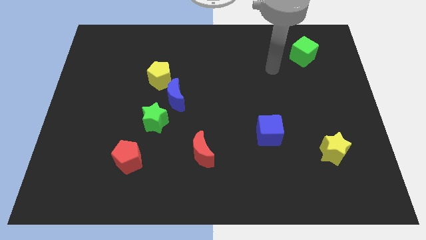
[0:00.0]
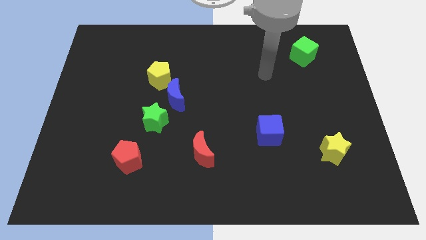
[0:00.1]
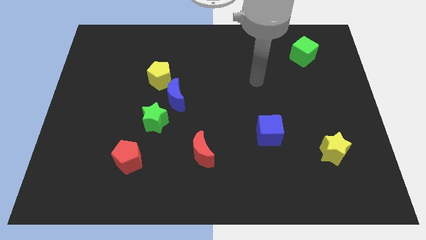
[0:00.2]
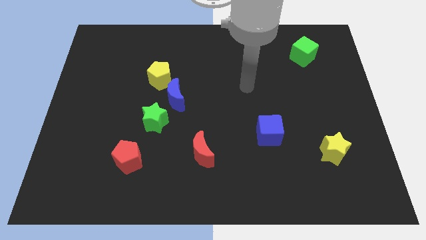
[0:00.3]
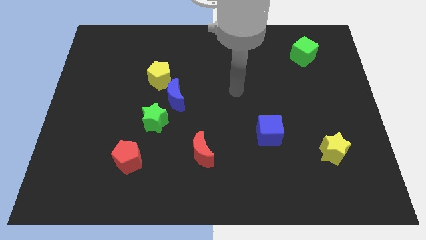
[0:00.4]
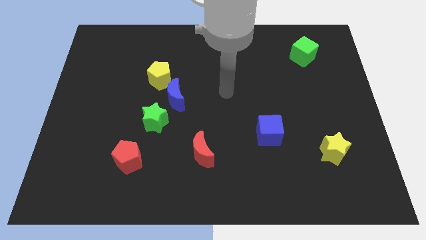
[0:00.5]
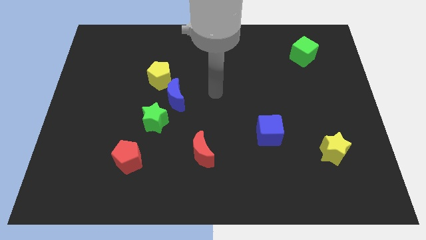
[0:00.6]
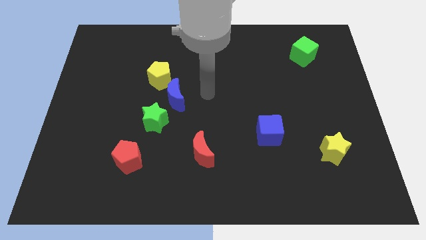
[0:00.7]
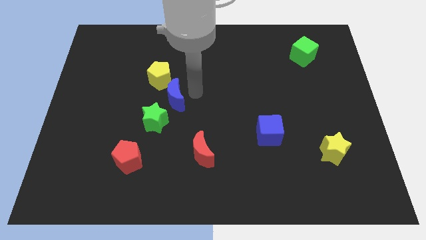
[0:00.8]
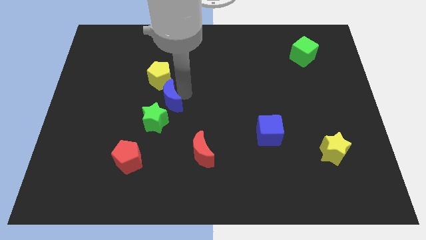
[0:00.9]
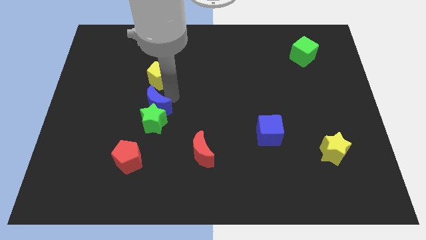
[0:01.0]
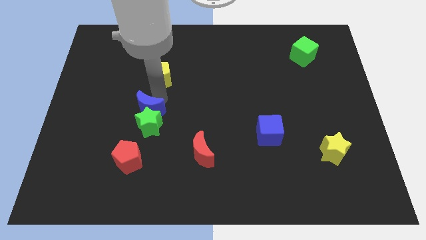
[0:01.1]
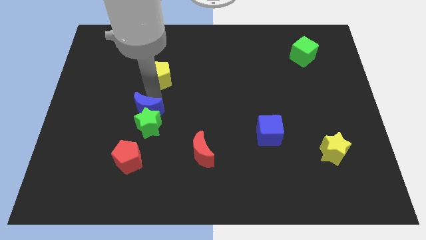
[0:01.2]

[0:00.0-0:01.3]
move the yellow pentagon away from the blue moon

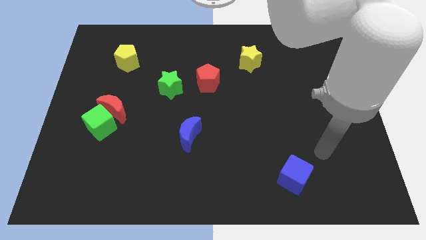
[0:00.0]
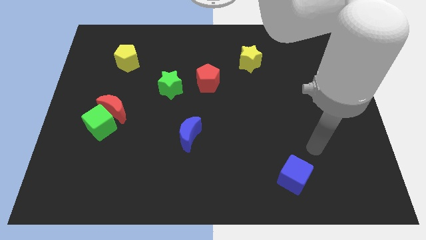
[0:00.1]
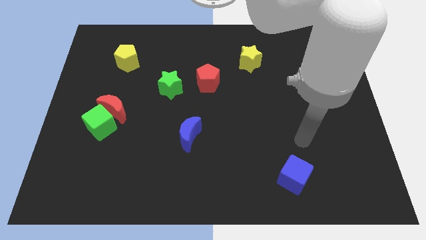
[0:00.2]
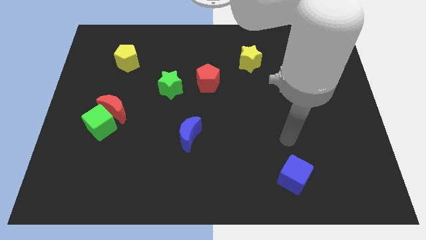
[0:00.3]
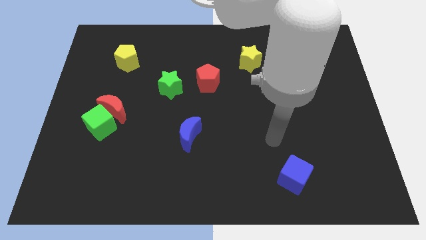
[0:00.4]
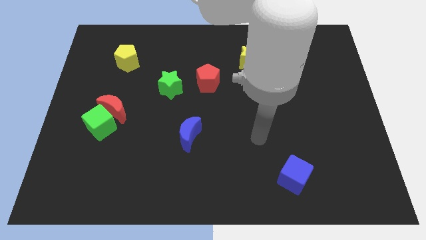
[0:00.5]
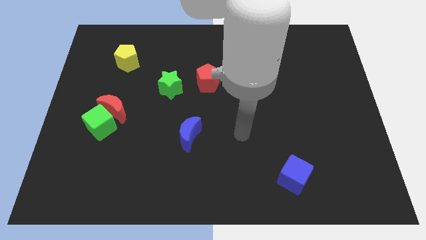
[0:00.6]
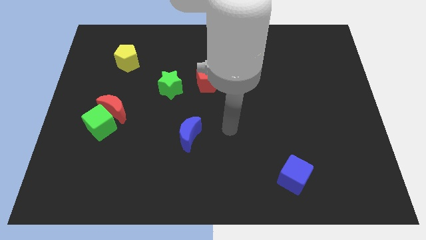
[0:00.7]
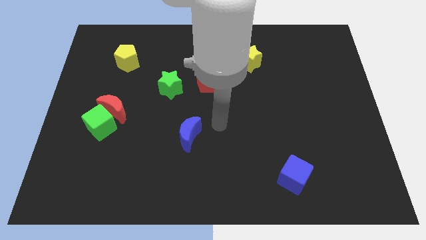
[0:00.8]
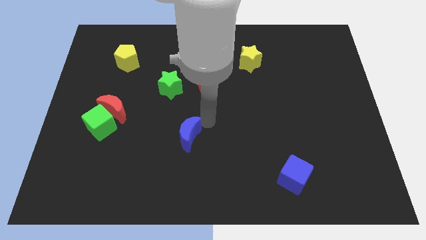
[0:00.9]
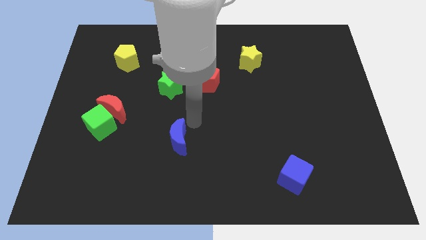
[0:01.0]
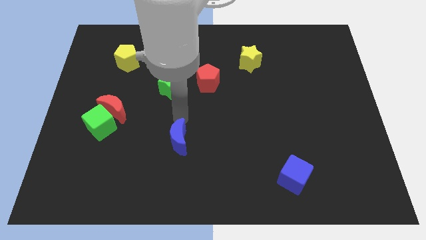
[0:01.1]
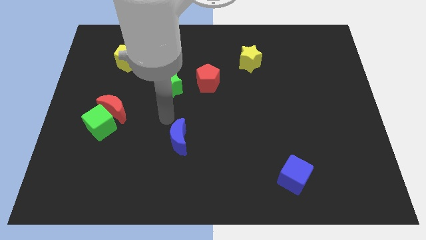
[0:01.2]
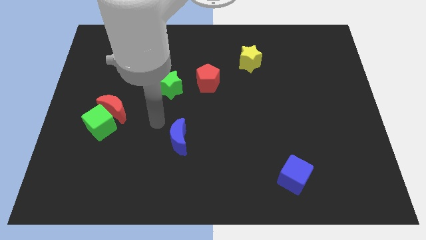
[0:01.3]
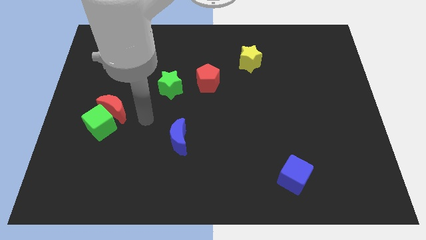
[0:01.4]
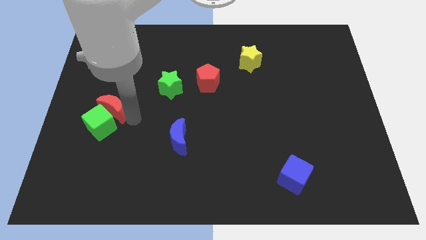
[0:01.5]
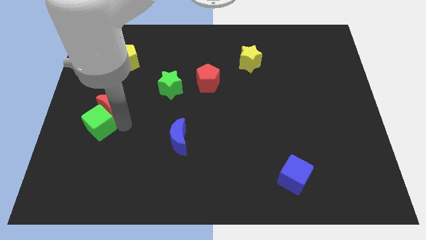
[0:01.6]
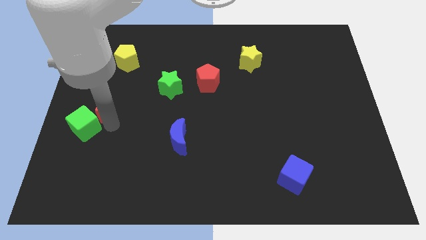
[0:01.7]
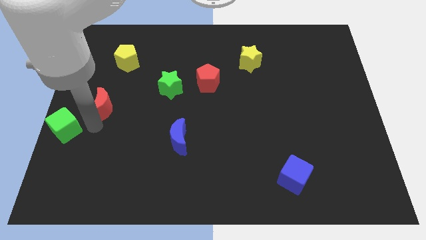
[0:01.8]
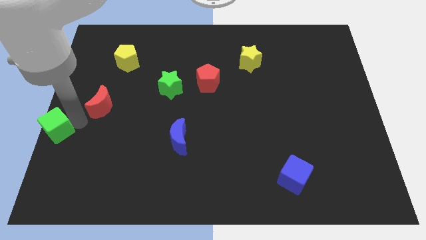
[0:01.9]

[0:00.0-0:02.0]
pull the red moon apart from the green cube

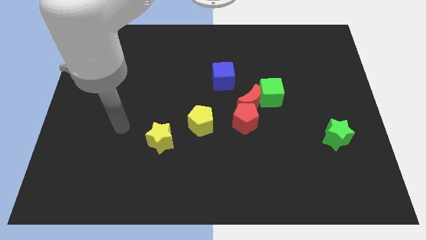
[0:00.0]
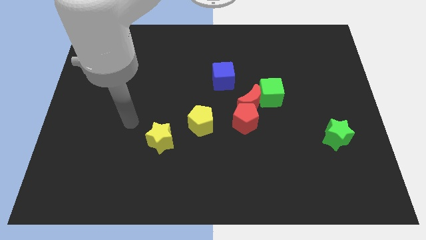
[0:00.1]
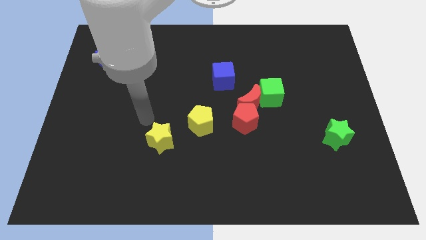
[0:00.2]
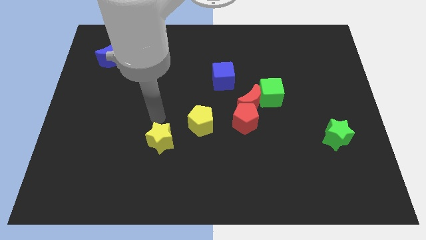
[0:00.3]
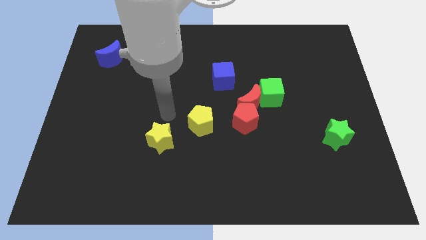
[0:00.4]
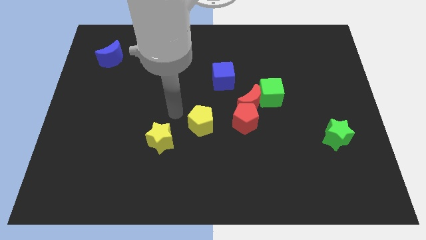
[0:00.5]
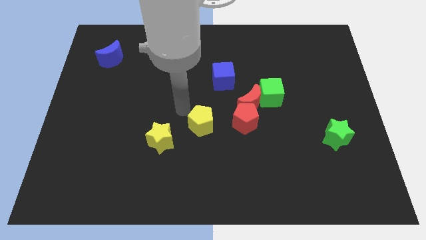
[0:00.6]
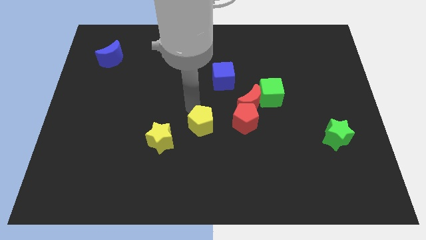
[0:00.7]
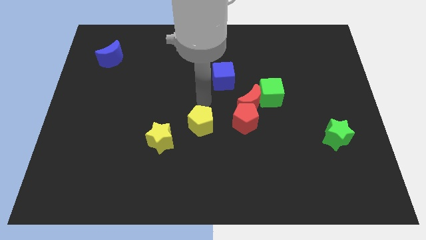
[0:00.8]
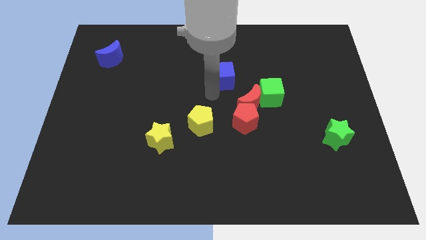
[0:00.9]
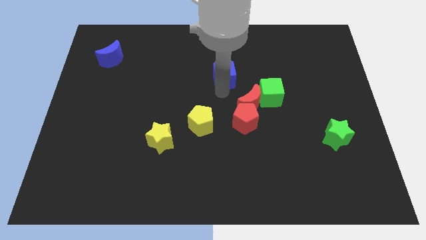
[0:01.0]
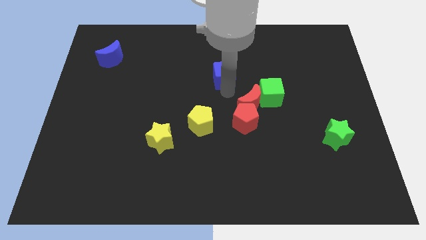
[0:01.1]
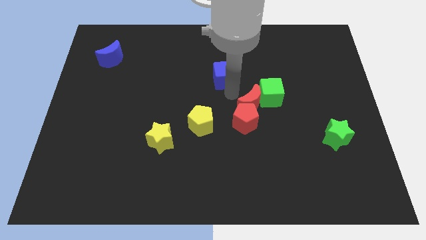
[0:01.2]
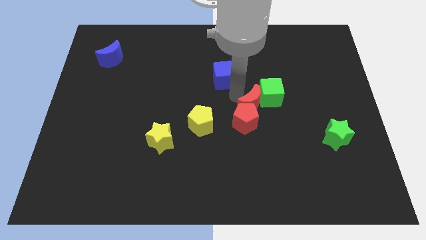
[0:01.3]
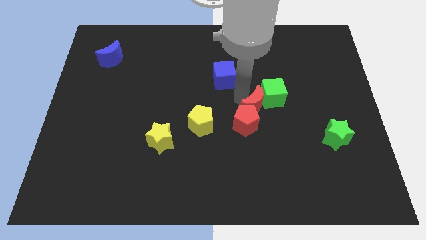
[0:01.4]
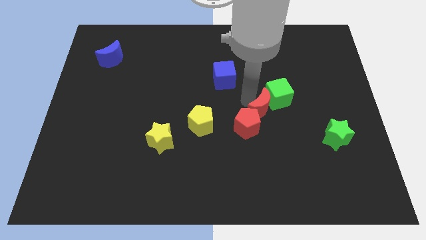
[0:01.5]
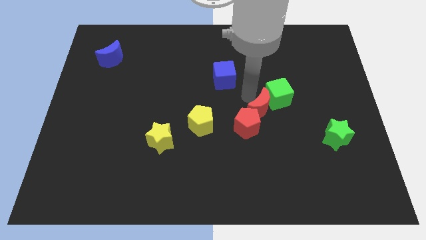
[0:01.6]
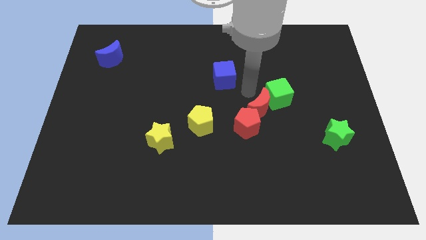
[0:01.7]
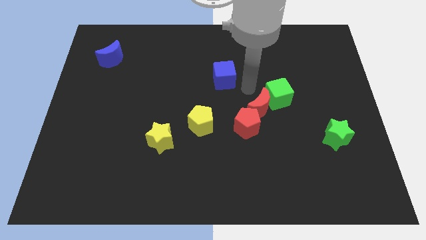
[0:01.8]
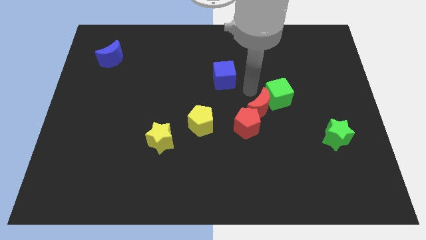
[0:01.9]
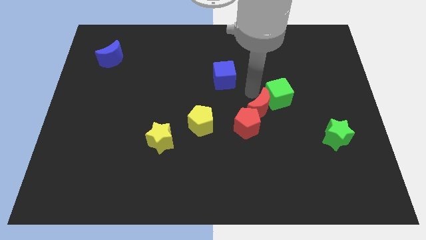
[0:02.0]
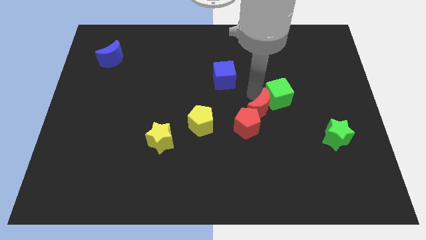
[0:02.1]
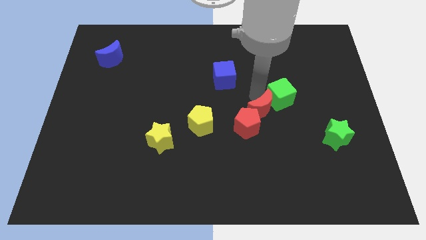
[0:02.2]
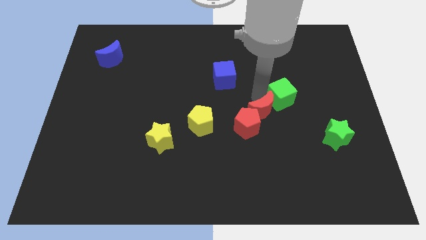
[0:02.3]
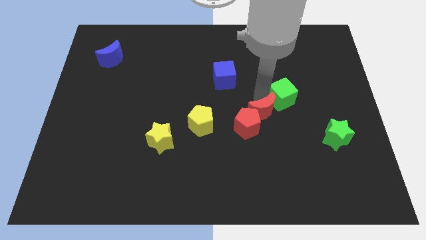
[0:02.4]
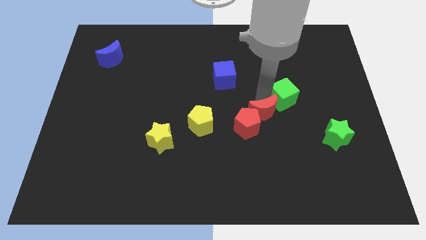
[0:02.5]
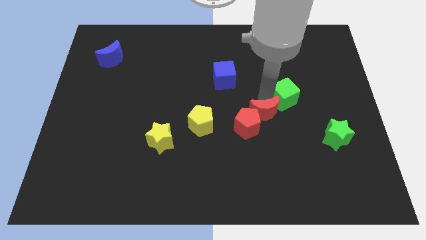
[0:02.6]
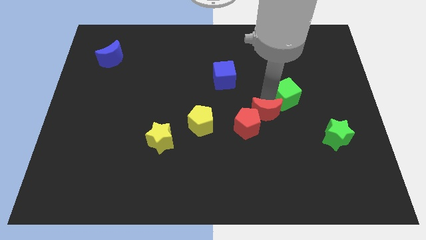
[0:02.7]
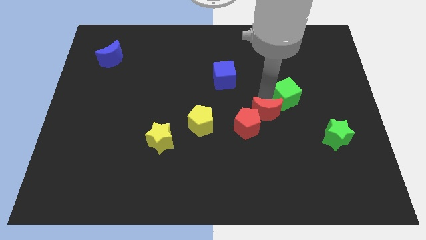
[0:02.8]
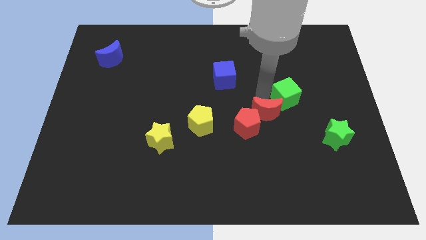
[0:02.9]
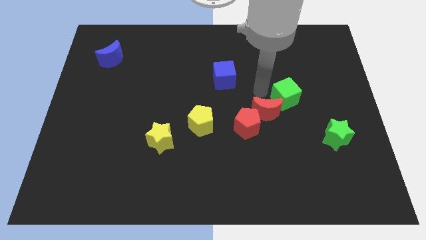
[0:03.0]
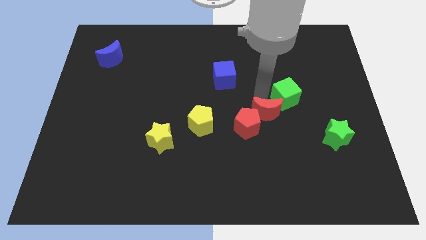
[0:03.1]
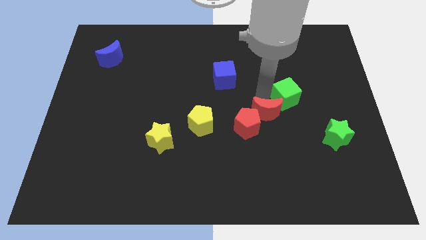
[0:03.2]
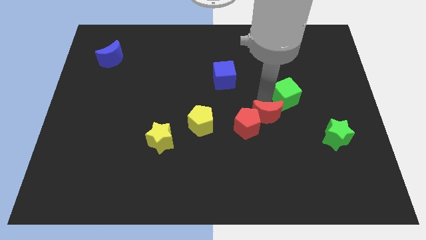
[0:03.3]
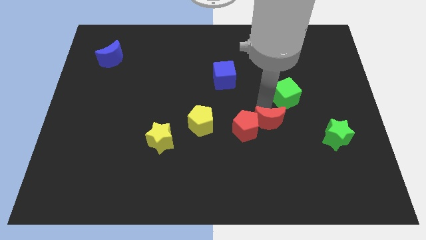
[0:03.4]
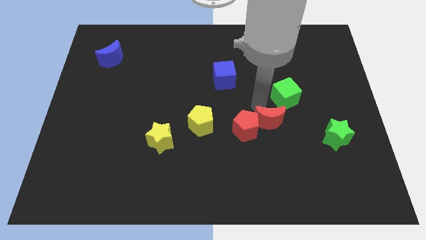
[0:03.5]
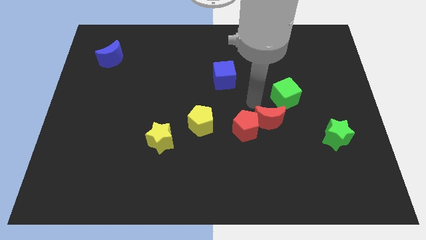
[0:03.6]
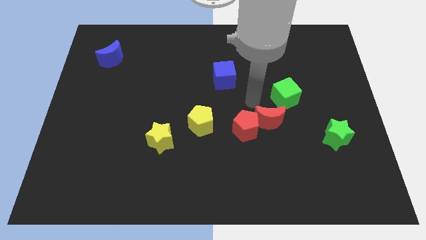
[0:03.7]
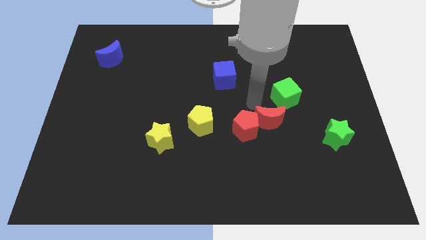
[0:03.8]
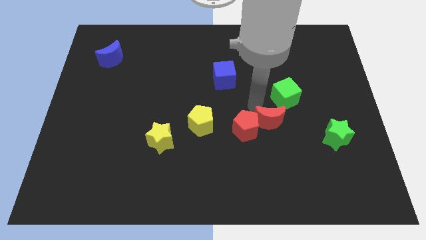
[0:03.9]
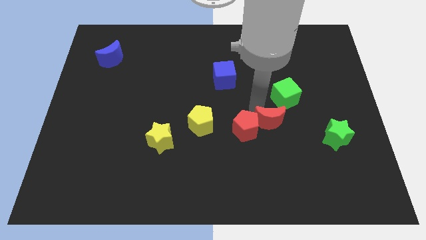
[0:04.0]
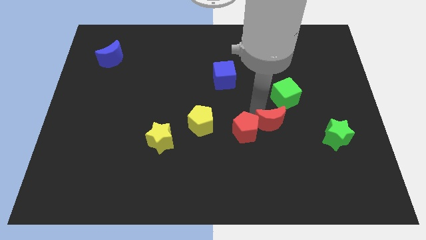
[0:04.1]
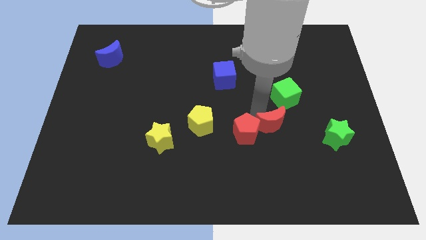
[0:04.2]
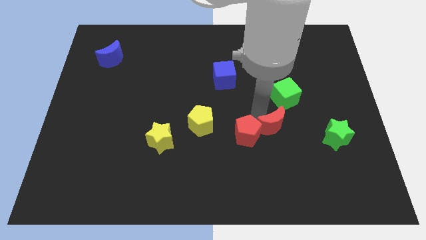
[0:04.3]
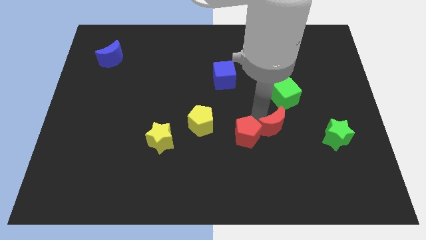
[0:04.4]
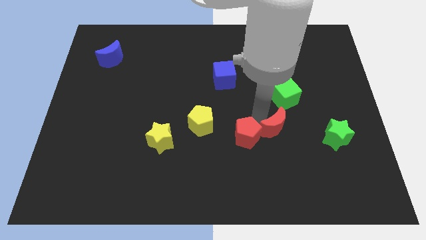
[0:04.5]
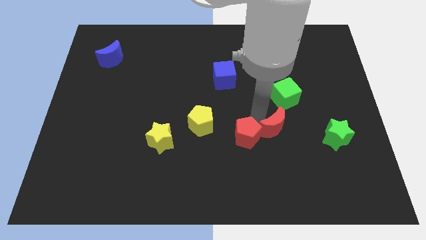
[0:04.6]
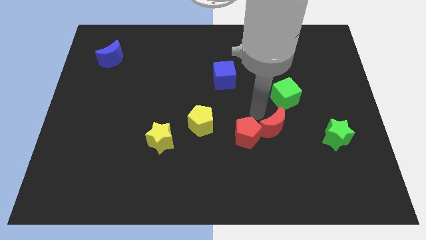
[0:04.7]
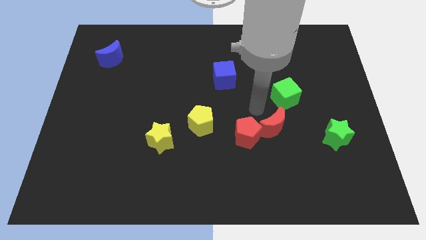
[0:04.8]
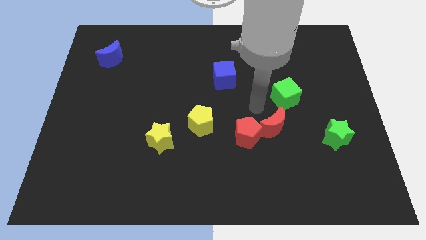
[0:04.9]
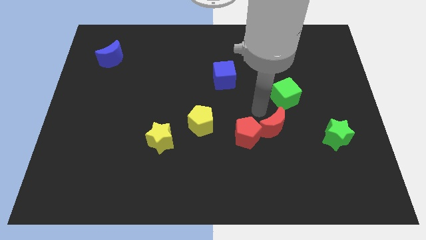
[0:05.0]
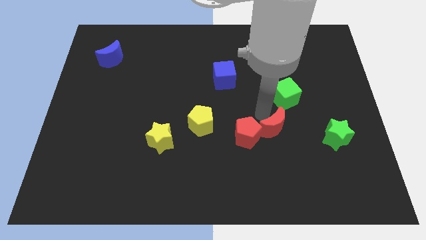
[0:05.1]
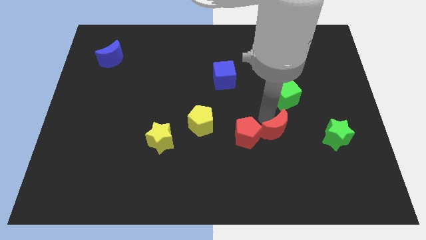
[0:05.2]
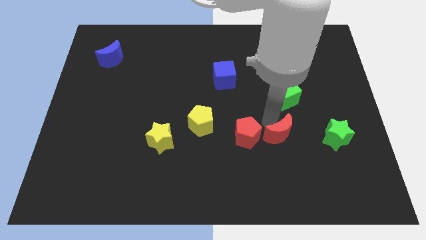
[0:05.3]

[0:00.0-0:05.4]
pull the red moon apart from the group

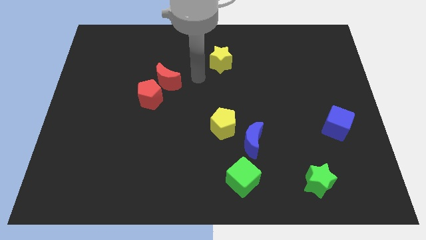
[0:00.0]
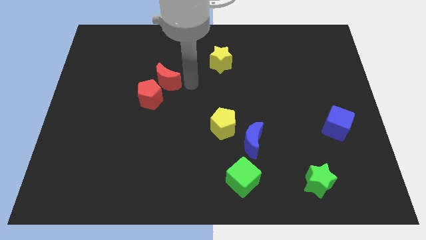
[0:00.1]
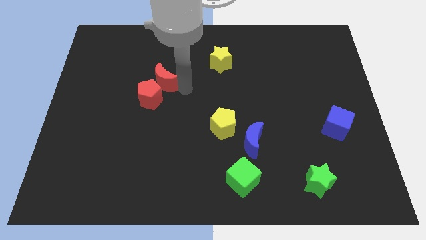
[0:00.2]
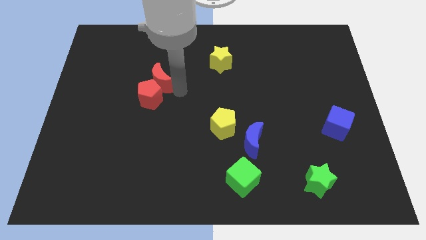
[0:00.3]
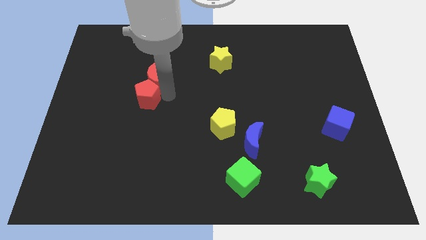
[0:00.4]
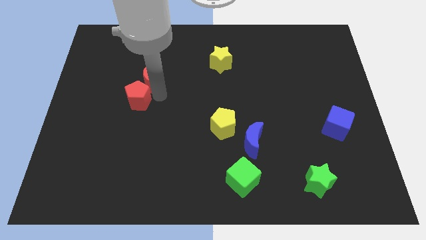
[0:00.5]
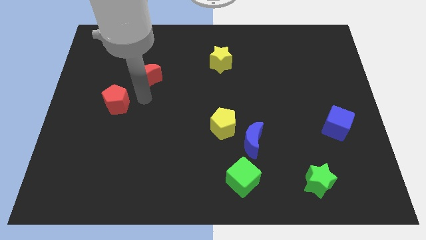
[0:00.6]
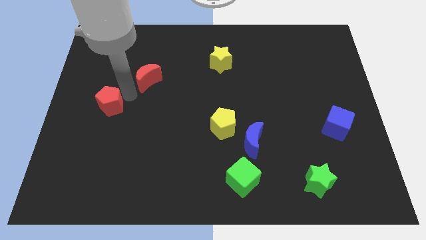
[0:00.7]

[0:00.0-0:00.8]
separate the red moon from the red pentagon
